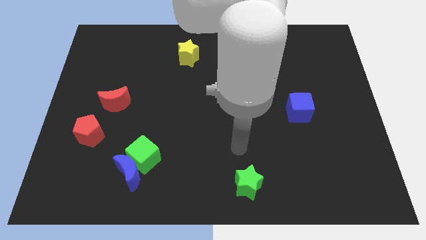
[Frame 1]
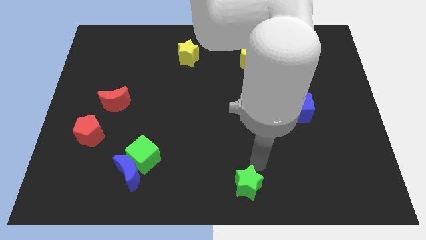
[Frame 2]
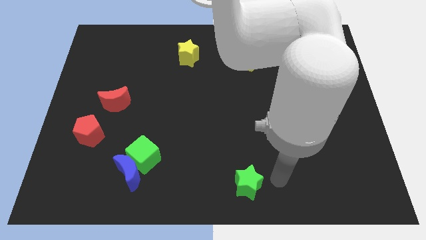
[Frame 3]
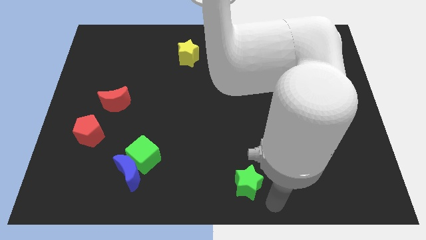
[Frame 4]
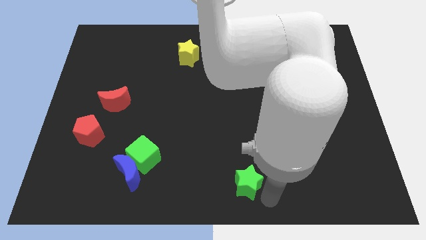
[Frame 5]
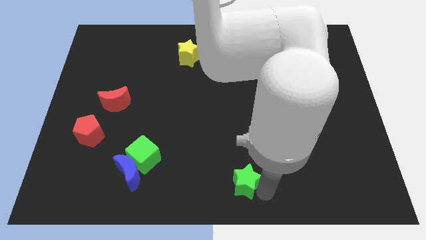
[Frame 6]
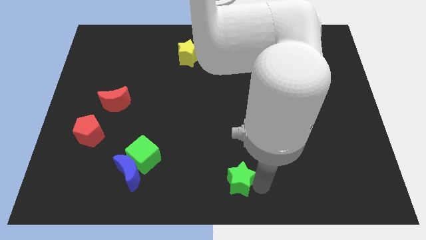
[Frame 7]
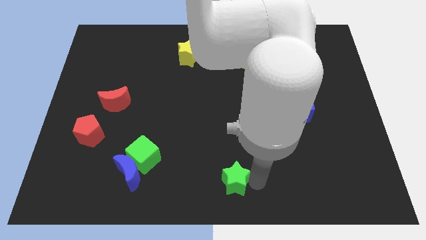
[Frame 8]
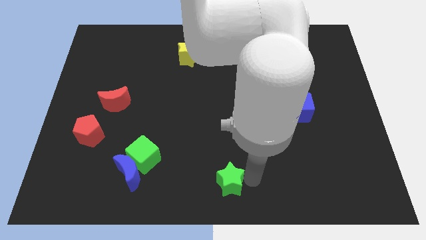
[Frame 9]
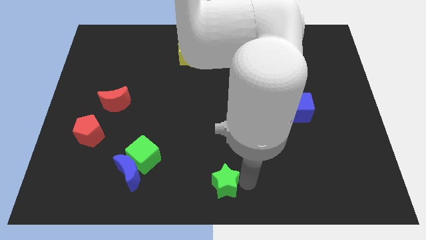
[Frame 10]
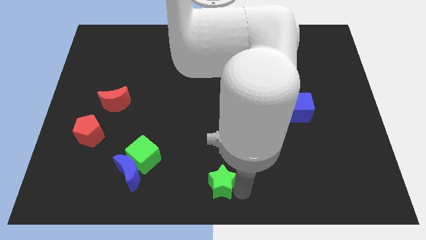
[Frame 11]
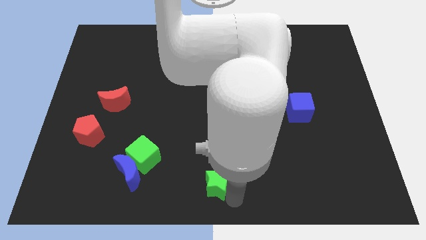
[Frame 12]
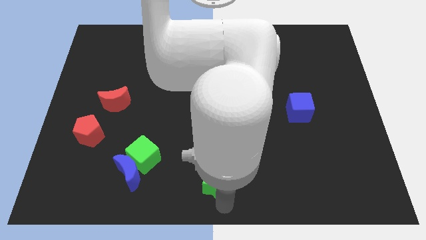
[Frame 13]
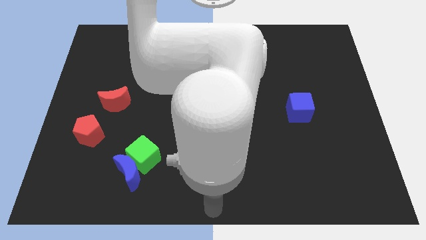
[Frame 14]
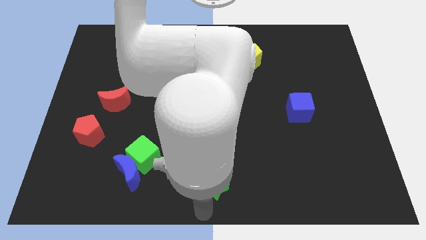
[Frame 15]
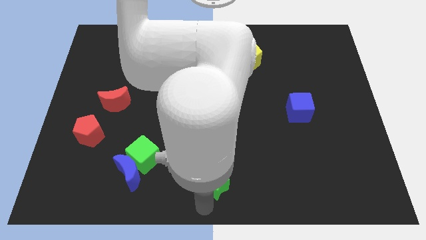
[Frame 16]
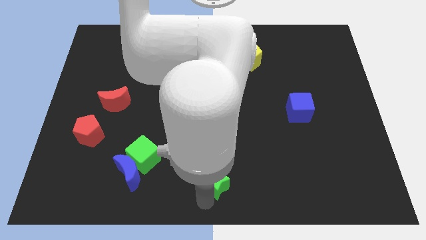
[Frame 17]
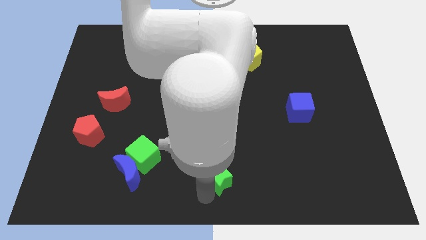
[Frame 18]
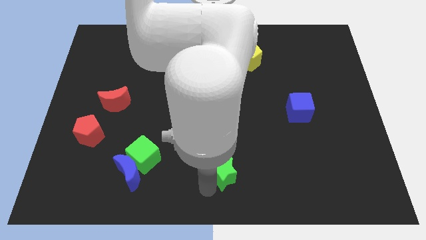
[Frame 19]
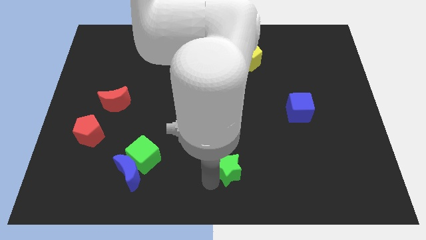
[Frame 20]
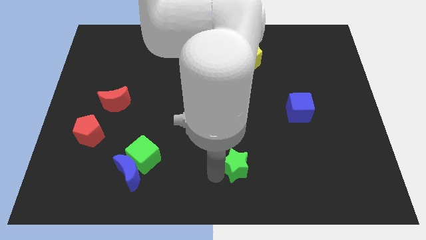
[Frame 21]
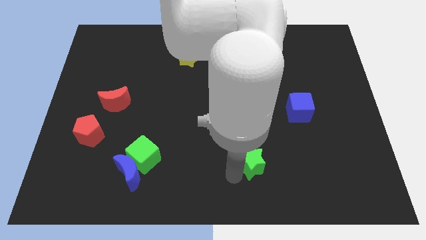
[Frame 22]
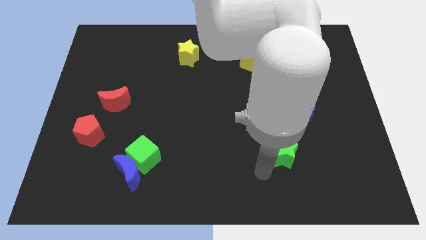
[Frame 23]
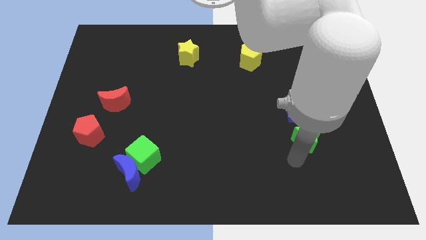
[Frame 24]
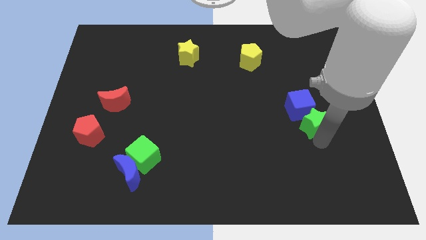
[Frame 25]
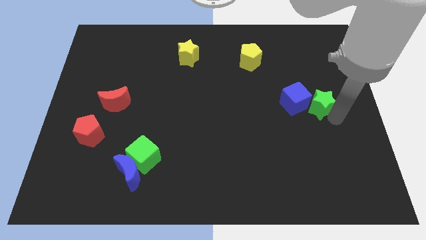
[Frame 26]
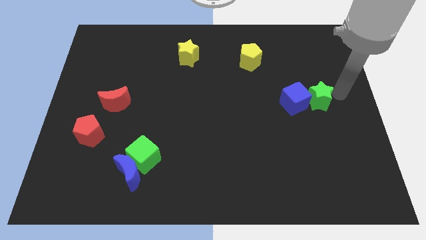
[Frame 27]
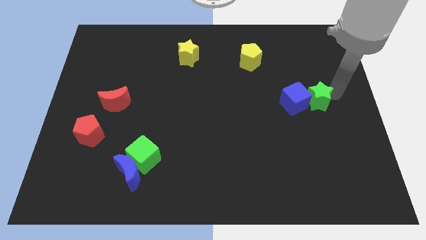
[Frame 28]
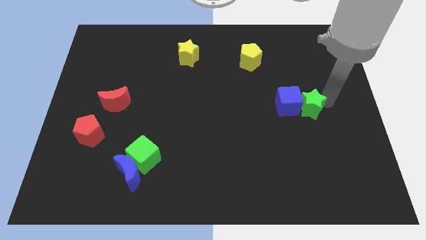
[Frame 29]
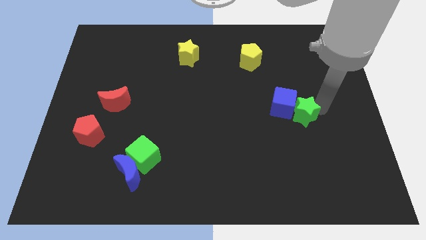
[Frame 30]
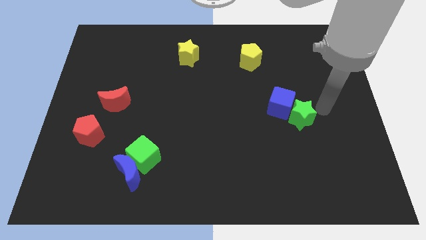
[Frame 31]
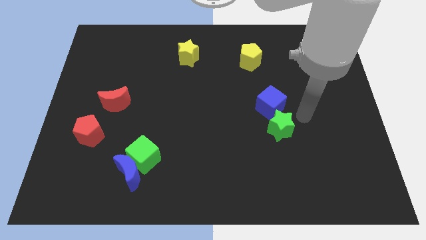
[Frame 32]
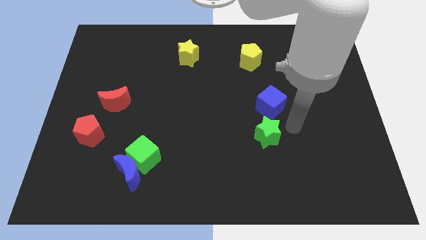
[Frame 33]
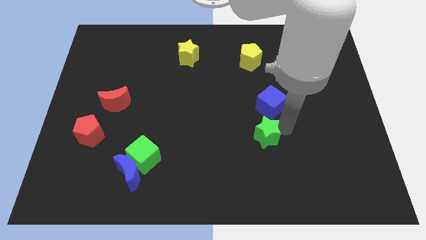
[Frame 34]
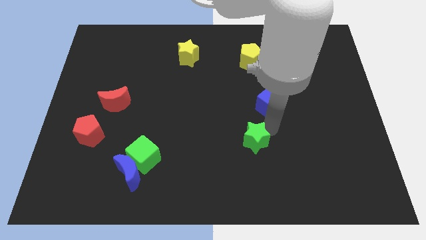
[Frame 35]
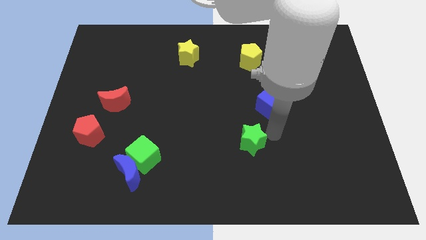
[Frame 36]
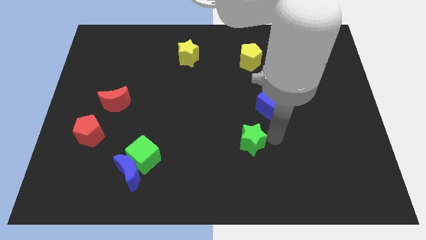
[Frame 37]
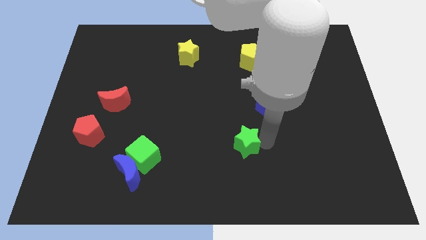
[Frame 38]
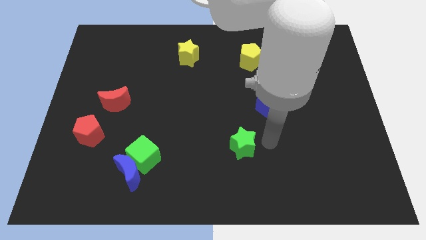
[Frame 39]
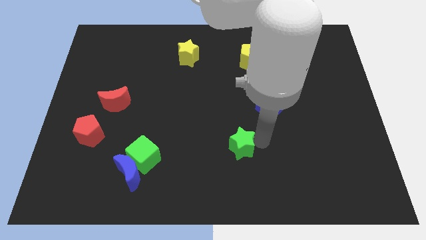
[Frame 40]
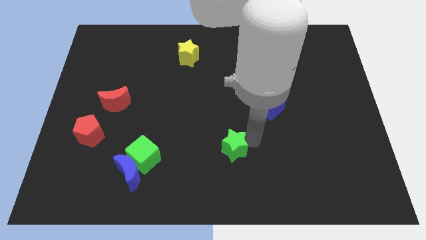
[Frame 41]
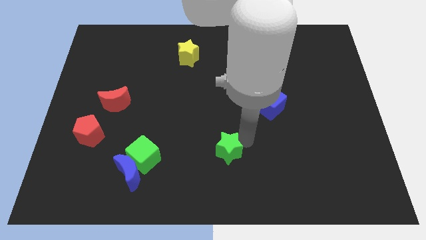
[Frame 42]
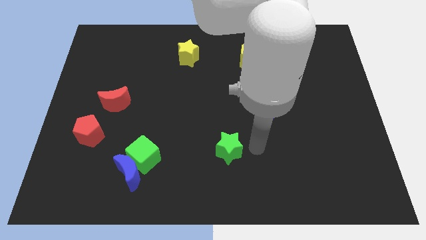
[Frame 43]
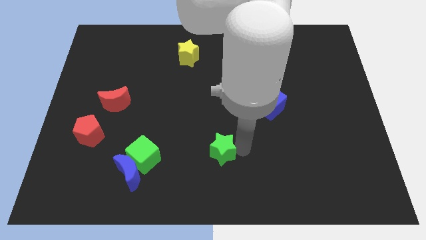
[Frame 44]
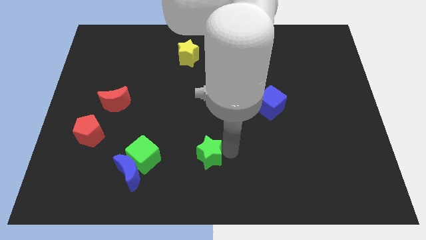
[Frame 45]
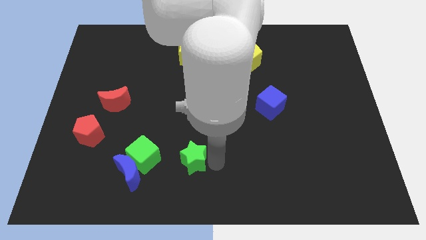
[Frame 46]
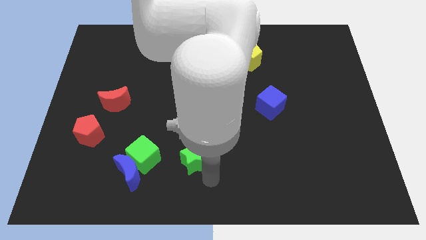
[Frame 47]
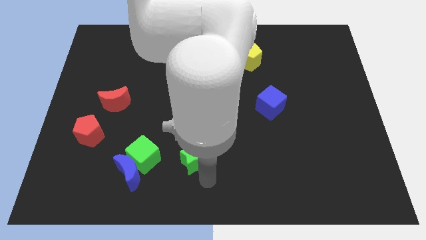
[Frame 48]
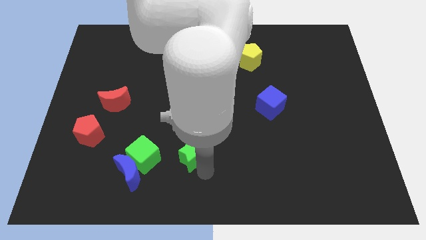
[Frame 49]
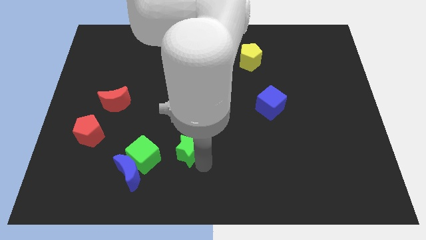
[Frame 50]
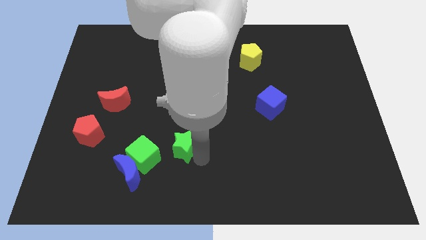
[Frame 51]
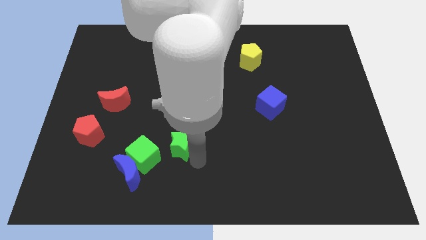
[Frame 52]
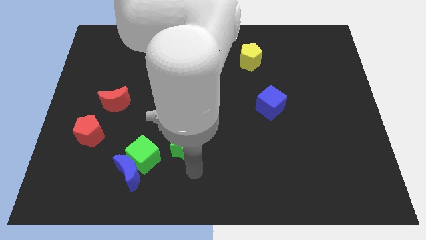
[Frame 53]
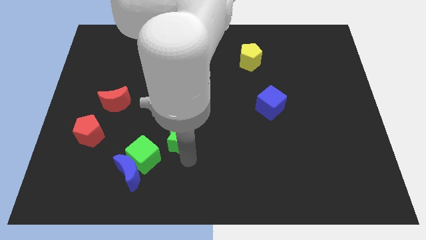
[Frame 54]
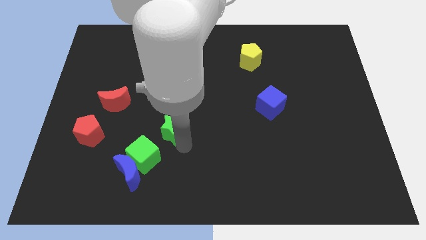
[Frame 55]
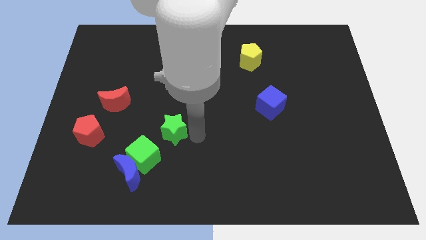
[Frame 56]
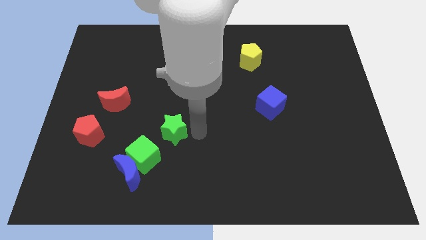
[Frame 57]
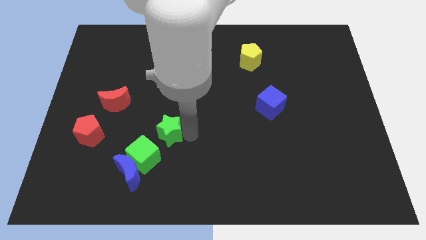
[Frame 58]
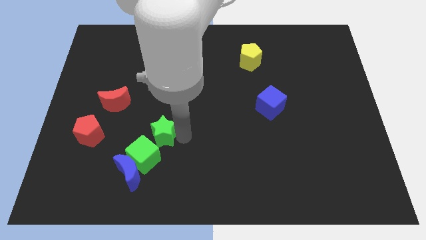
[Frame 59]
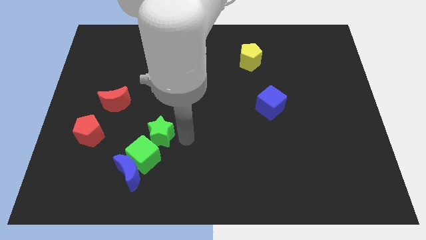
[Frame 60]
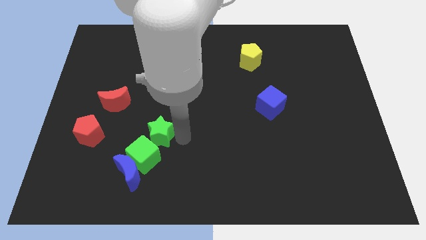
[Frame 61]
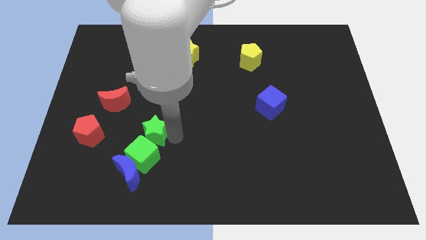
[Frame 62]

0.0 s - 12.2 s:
put the green star above the blue moon

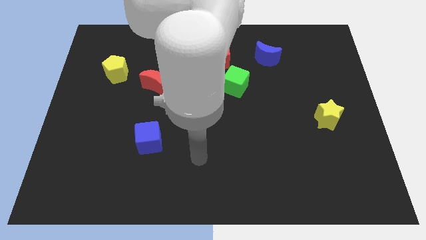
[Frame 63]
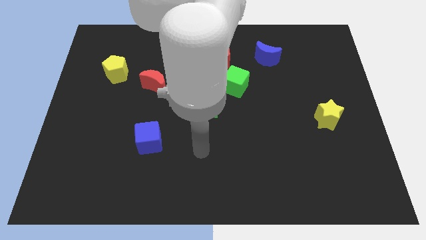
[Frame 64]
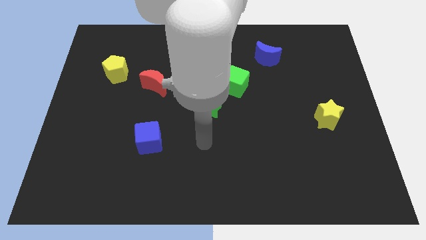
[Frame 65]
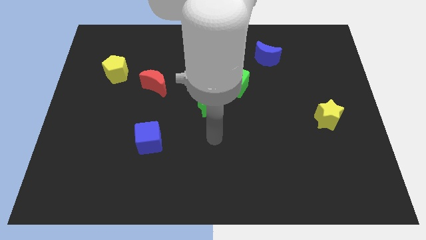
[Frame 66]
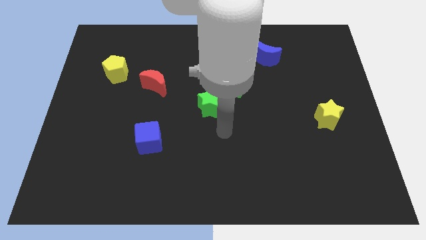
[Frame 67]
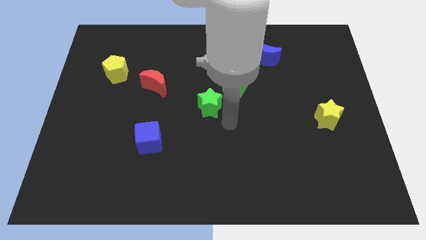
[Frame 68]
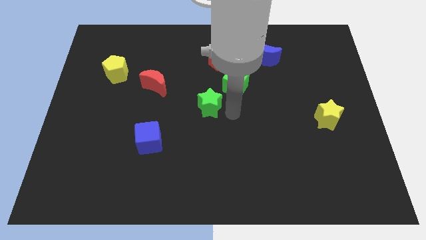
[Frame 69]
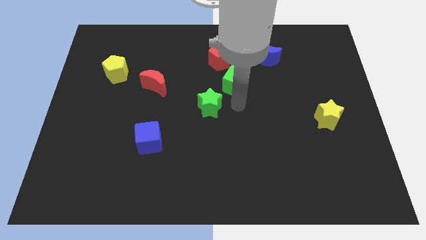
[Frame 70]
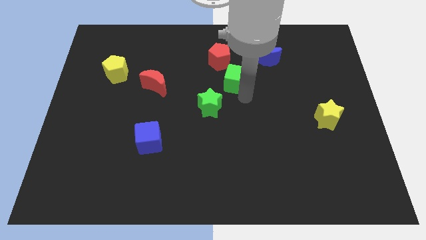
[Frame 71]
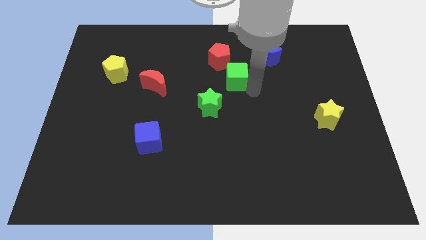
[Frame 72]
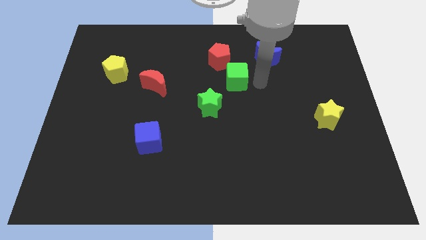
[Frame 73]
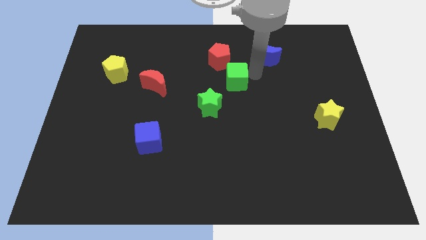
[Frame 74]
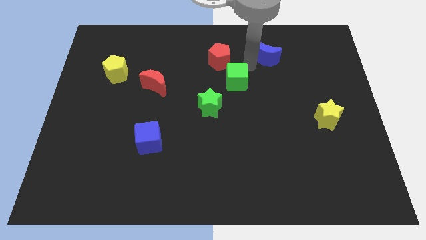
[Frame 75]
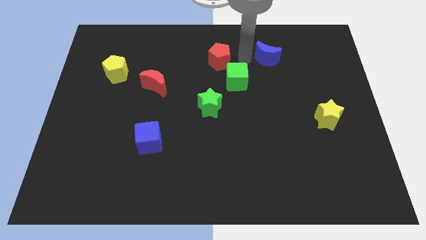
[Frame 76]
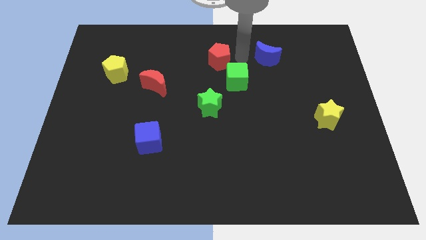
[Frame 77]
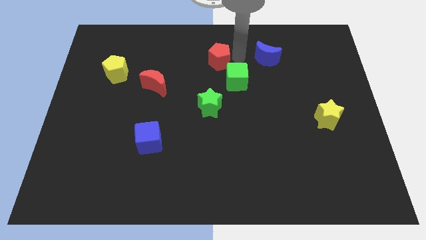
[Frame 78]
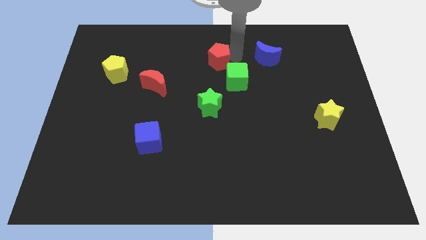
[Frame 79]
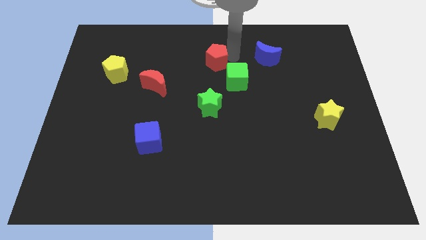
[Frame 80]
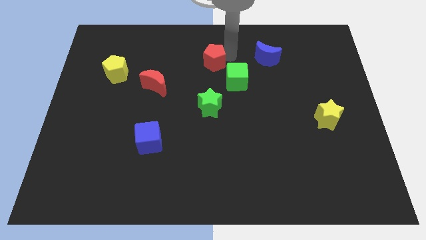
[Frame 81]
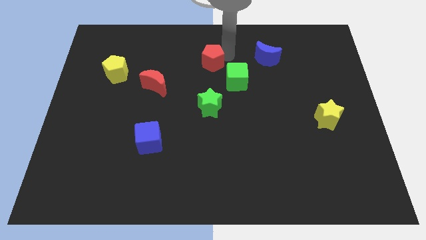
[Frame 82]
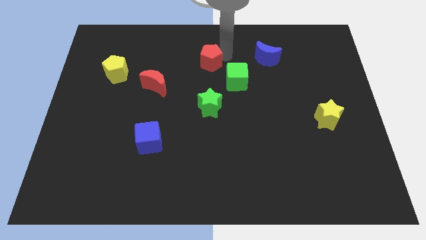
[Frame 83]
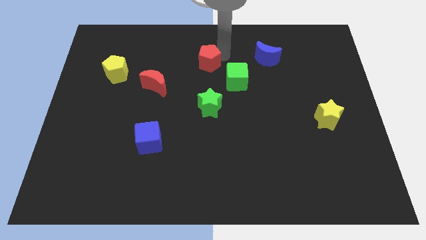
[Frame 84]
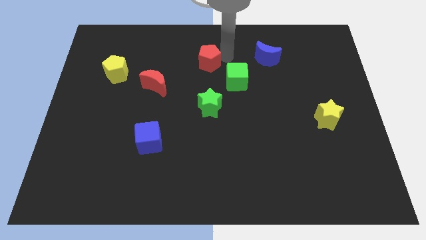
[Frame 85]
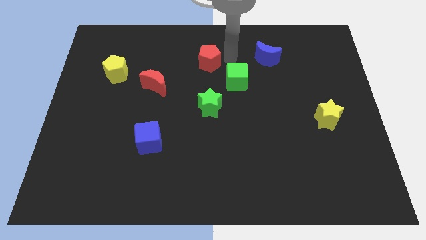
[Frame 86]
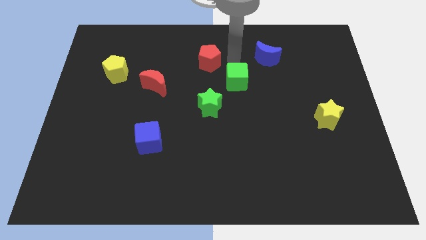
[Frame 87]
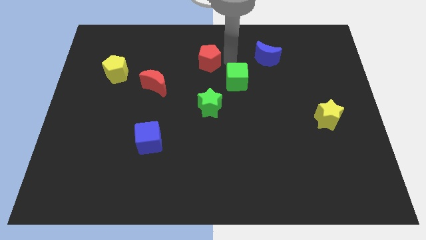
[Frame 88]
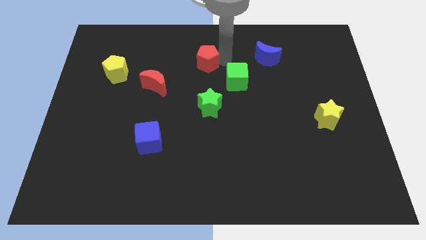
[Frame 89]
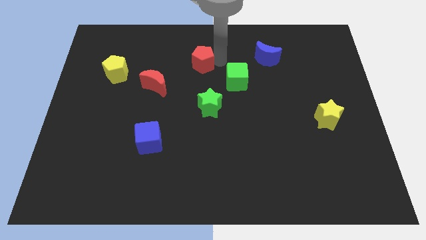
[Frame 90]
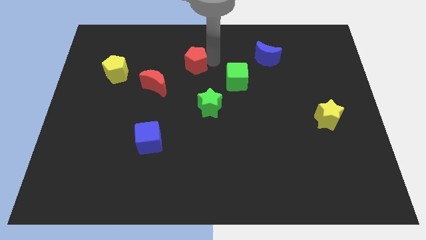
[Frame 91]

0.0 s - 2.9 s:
slide the red pentagon diagonally up and to the right of the red moon
